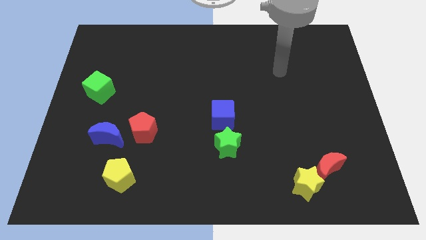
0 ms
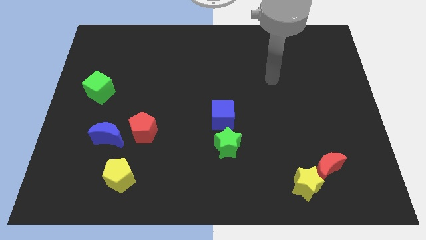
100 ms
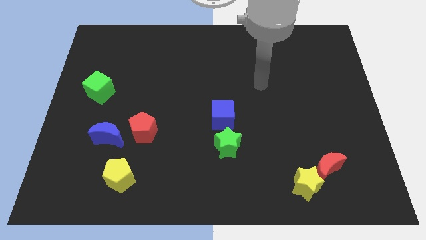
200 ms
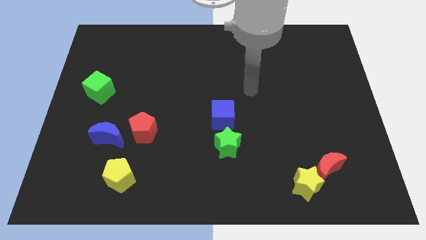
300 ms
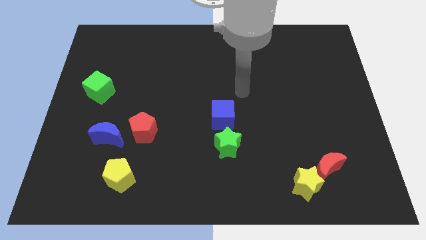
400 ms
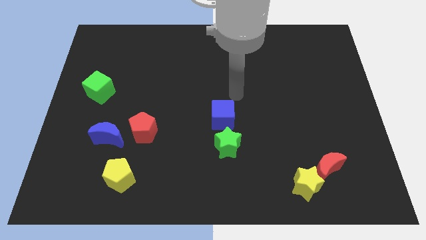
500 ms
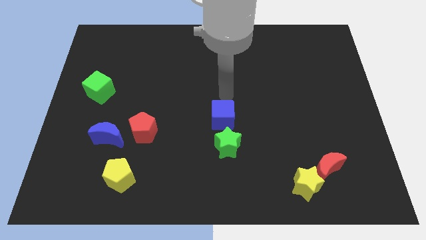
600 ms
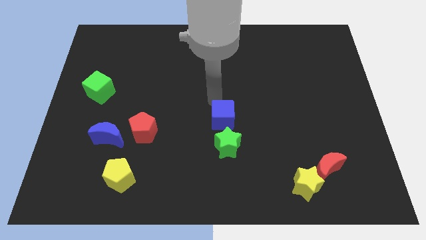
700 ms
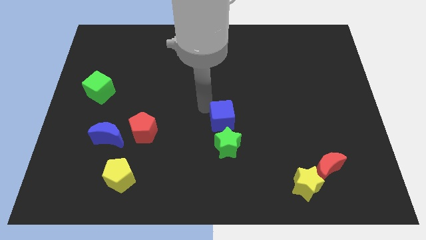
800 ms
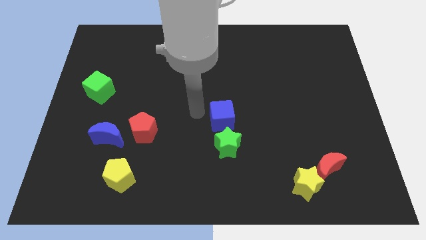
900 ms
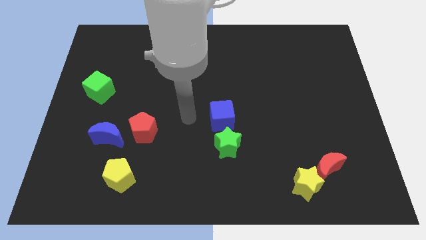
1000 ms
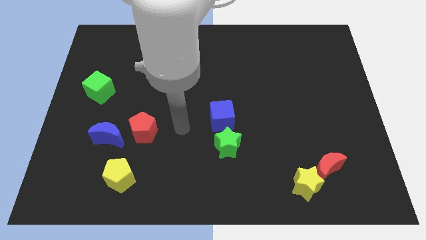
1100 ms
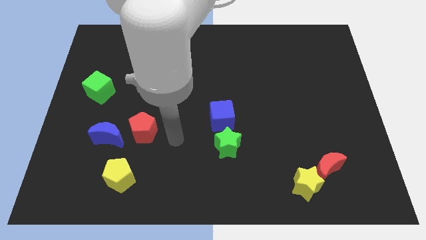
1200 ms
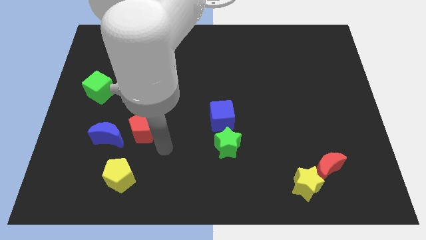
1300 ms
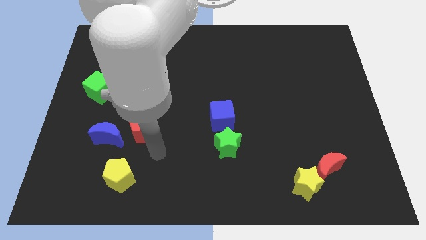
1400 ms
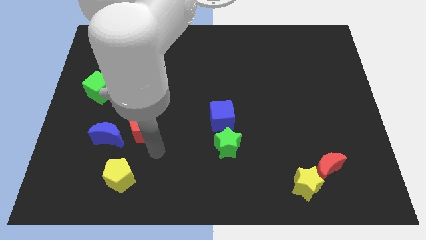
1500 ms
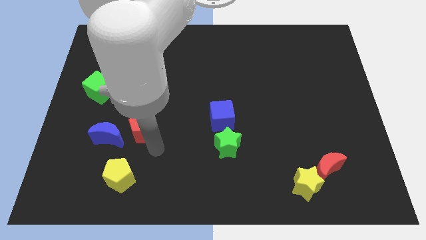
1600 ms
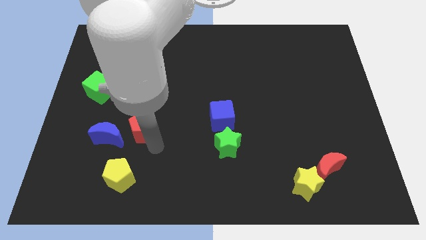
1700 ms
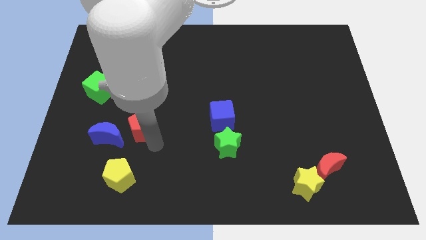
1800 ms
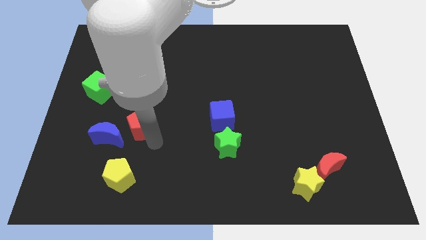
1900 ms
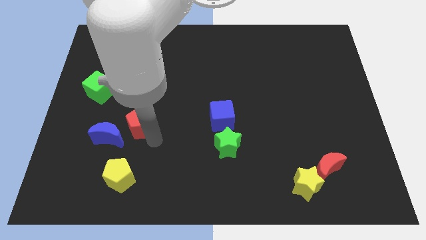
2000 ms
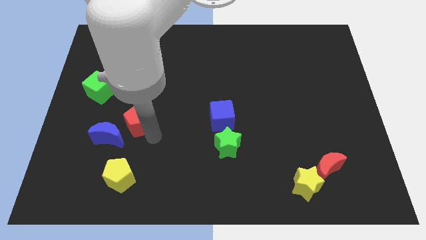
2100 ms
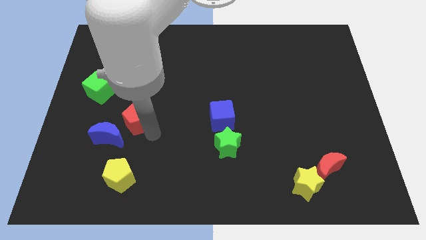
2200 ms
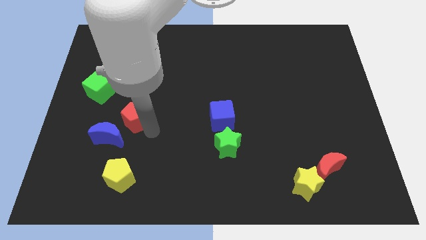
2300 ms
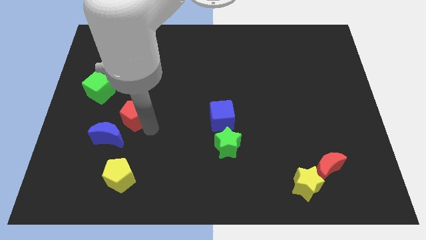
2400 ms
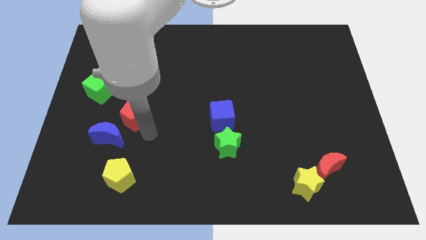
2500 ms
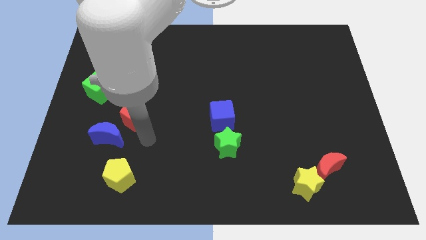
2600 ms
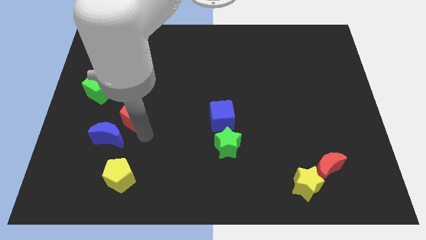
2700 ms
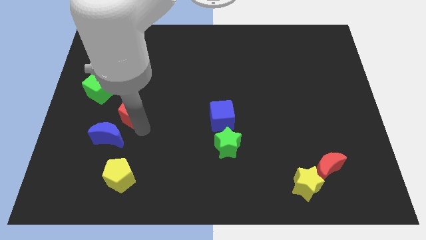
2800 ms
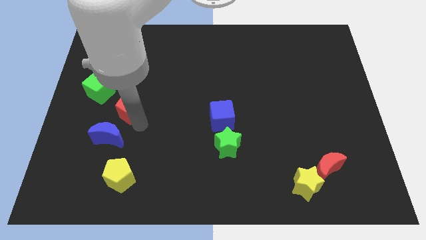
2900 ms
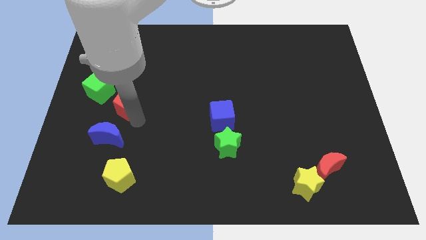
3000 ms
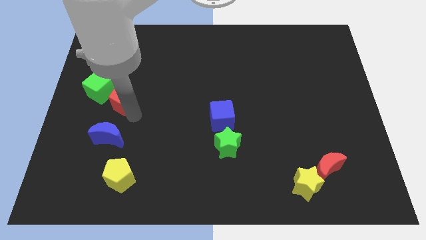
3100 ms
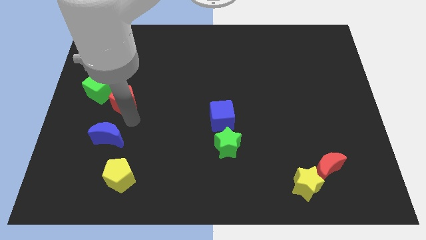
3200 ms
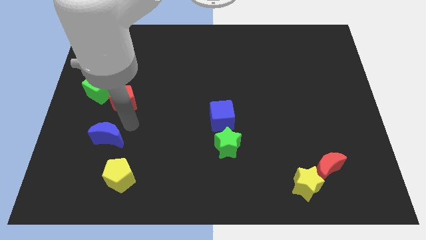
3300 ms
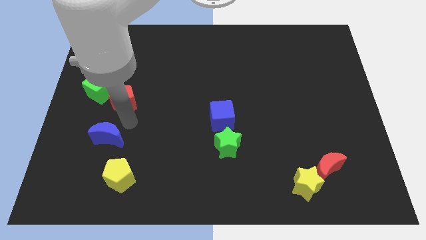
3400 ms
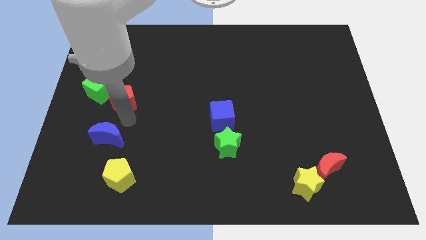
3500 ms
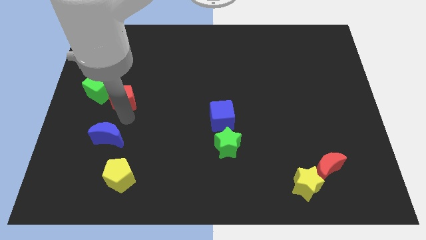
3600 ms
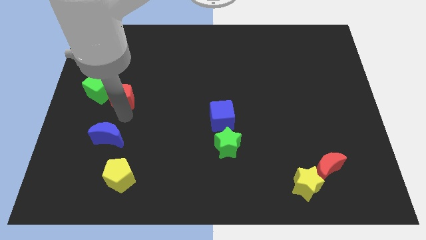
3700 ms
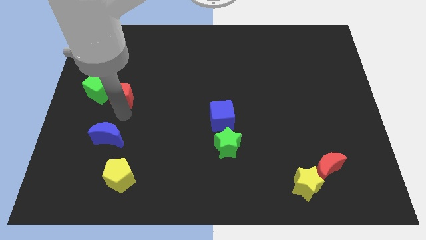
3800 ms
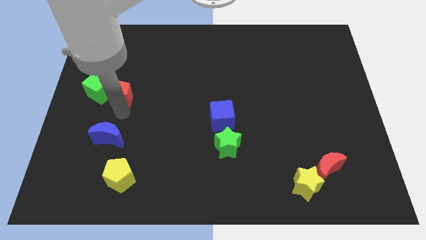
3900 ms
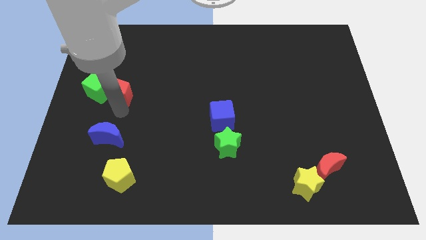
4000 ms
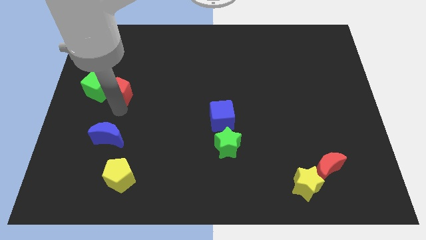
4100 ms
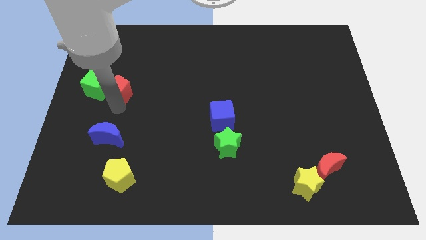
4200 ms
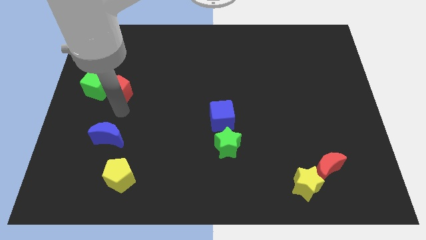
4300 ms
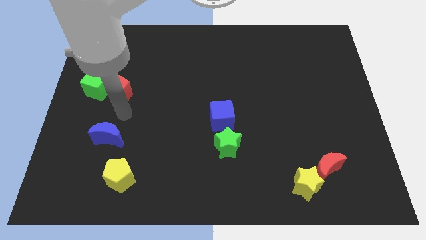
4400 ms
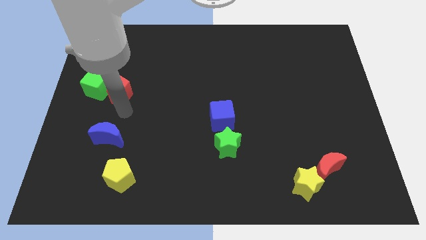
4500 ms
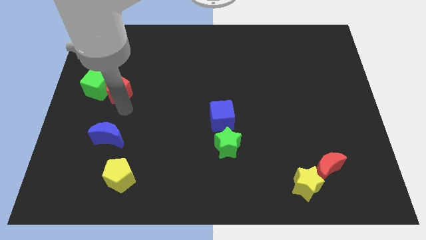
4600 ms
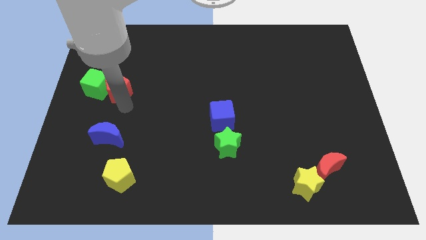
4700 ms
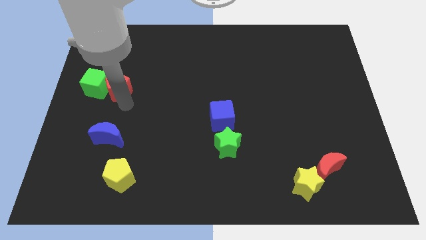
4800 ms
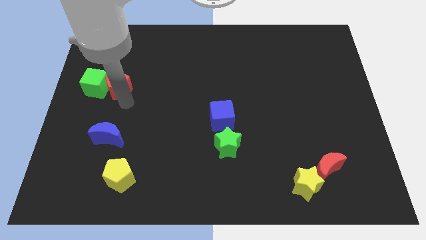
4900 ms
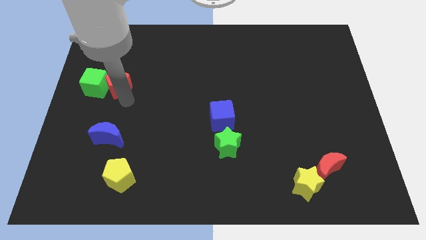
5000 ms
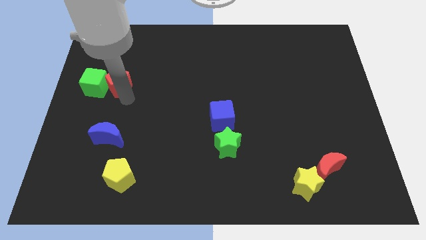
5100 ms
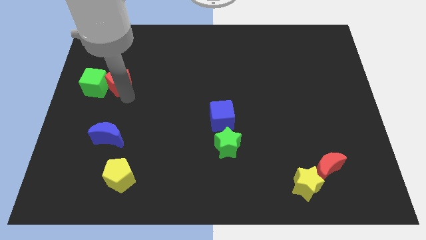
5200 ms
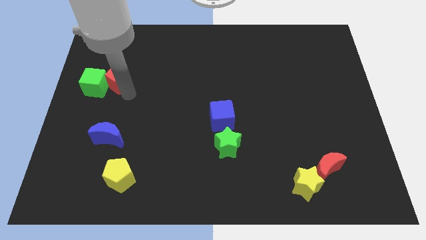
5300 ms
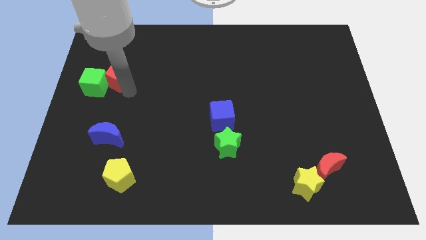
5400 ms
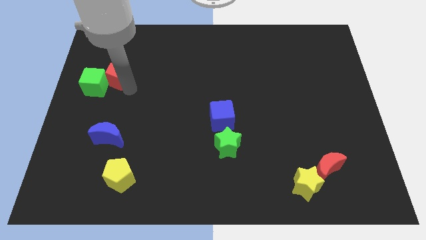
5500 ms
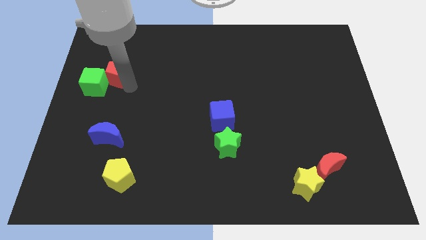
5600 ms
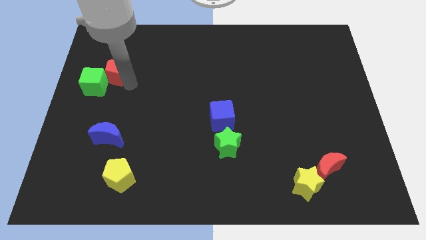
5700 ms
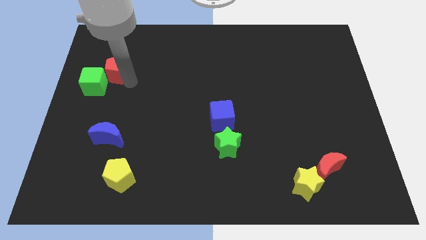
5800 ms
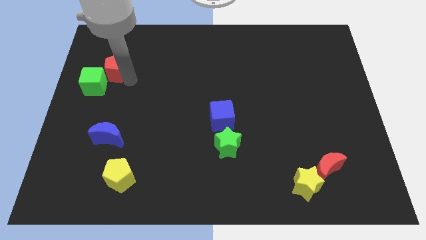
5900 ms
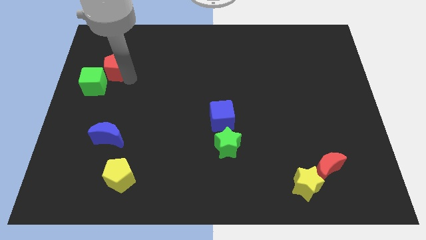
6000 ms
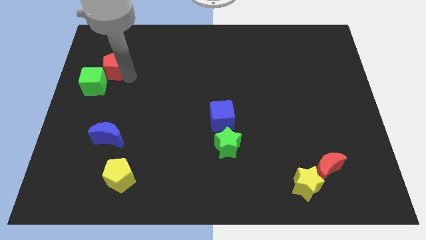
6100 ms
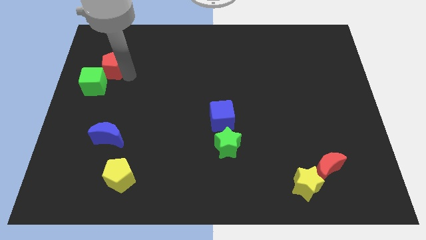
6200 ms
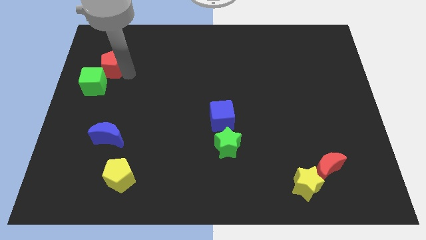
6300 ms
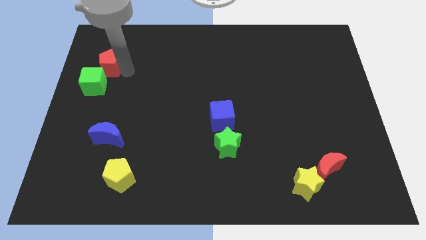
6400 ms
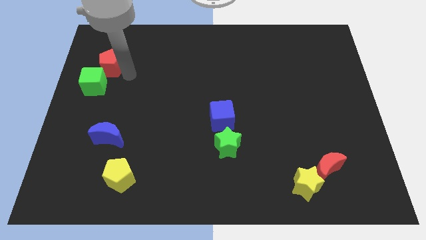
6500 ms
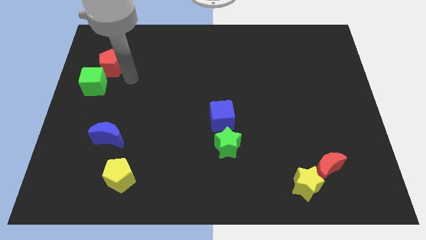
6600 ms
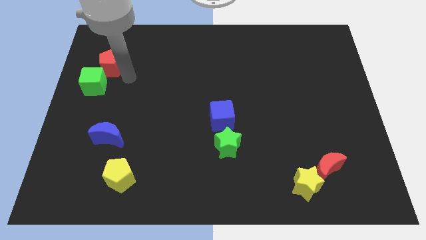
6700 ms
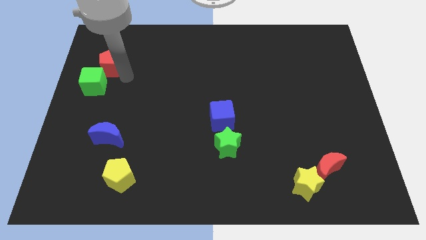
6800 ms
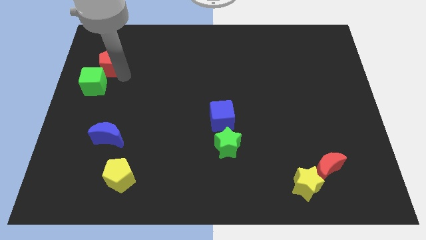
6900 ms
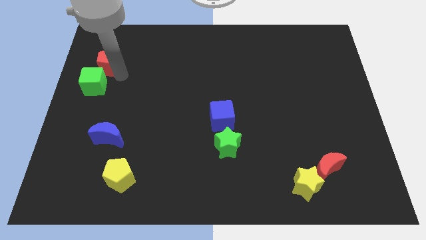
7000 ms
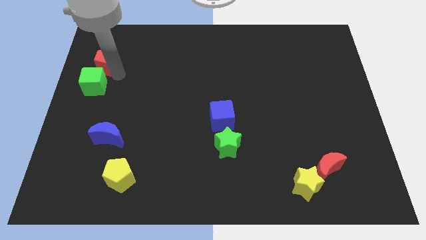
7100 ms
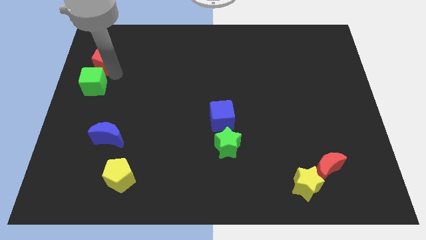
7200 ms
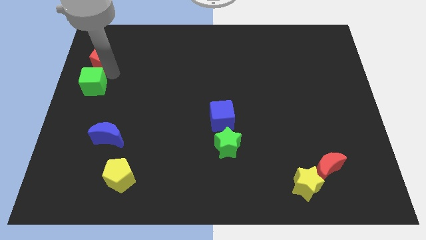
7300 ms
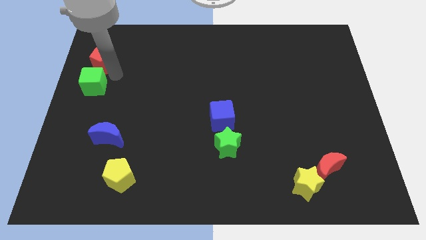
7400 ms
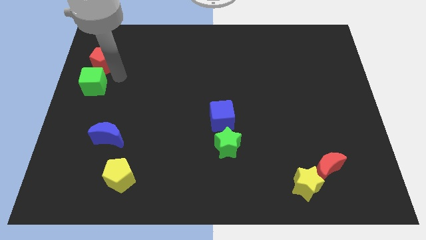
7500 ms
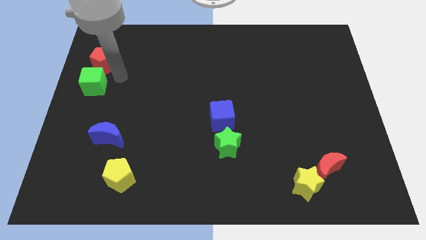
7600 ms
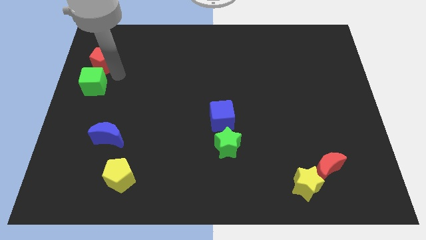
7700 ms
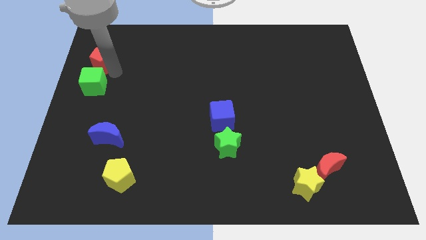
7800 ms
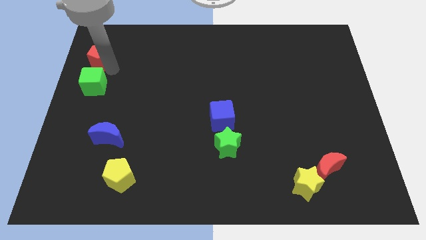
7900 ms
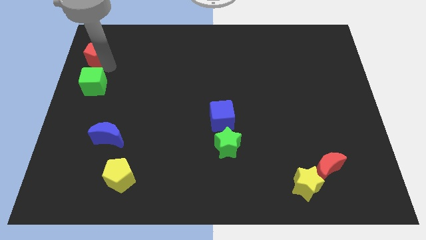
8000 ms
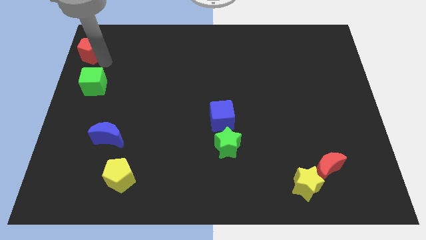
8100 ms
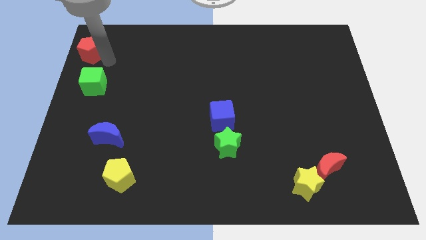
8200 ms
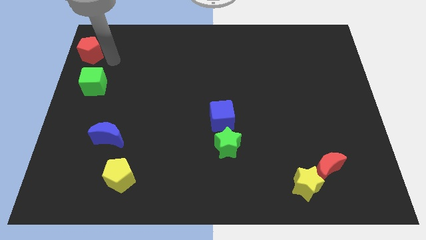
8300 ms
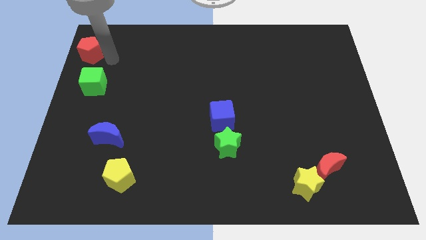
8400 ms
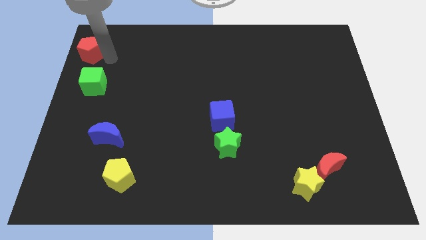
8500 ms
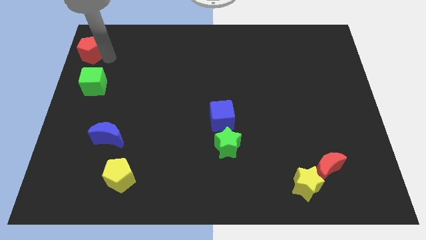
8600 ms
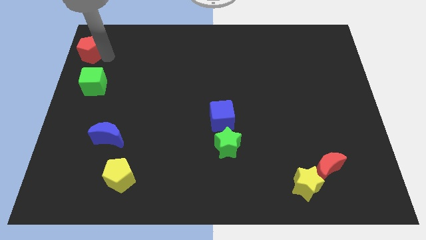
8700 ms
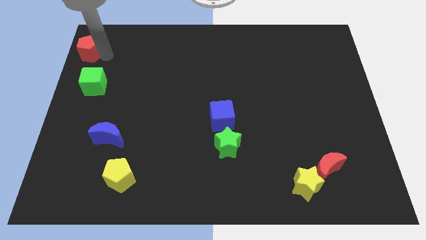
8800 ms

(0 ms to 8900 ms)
put the red pentagon to the top left corner
